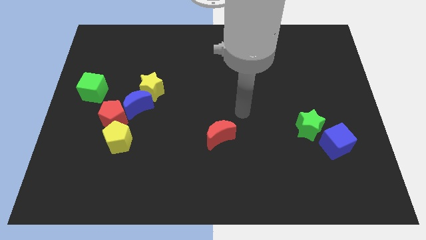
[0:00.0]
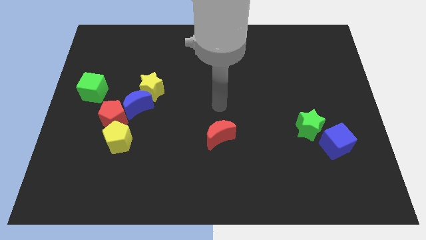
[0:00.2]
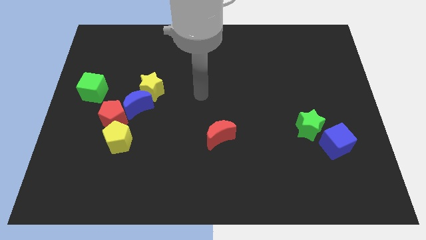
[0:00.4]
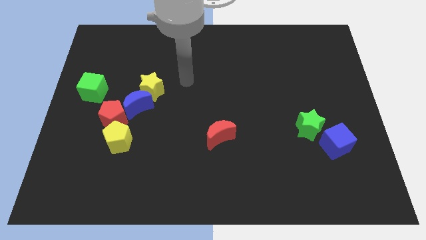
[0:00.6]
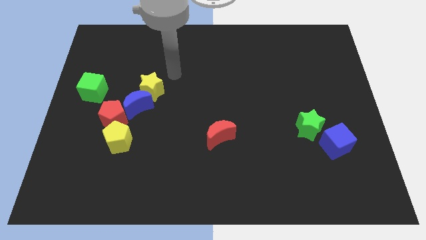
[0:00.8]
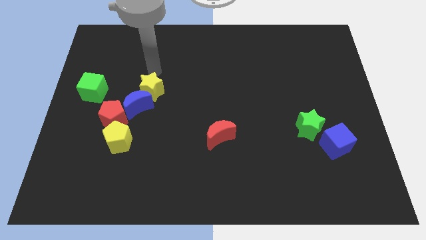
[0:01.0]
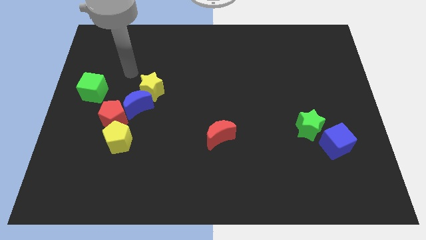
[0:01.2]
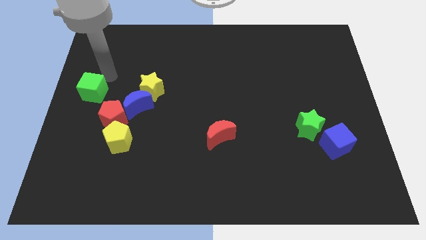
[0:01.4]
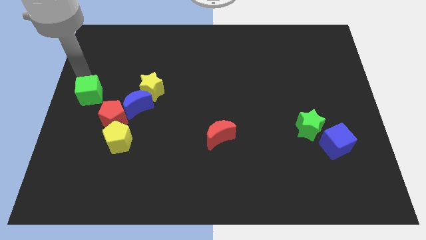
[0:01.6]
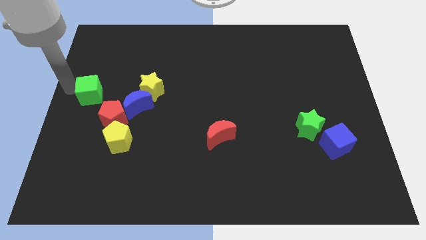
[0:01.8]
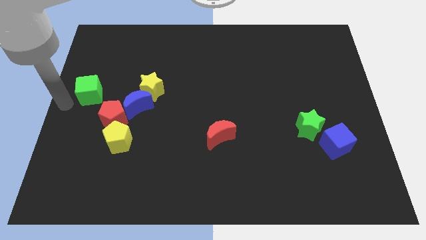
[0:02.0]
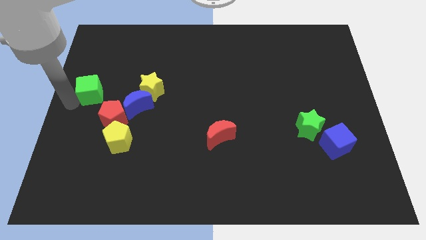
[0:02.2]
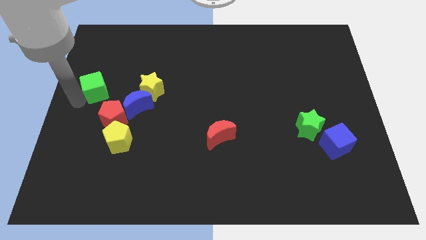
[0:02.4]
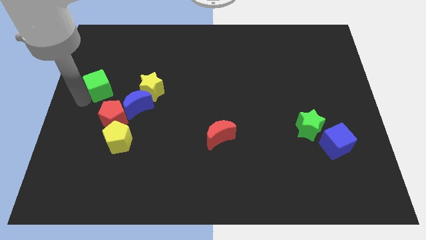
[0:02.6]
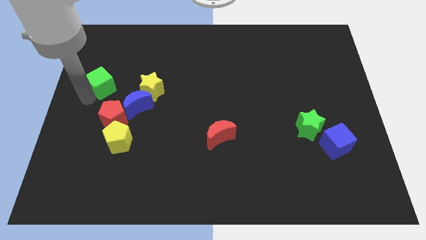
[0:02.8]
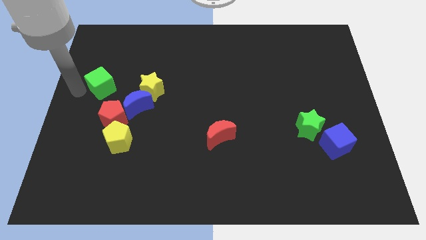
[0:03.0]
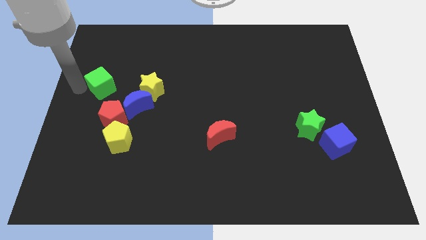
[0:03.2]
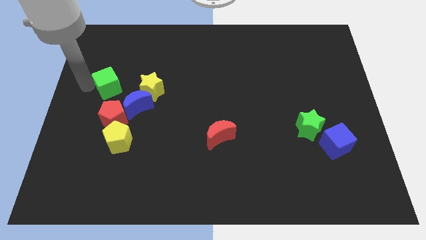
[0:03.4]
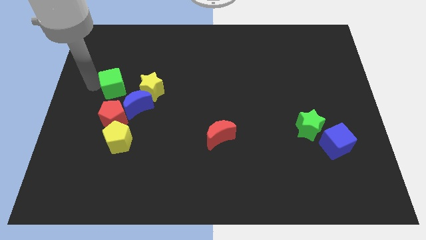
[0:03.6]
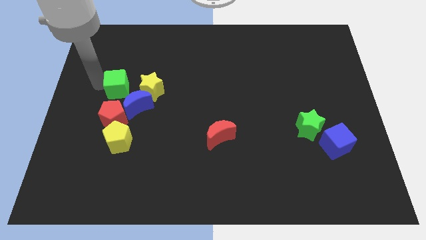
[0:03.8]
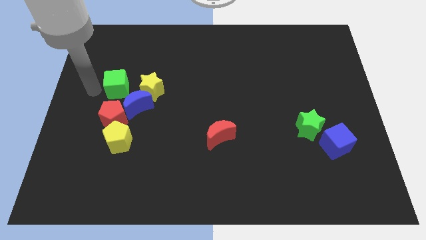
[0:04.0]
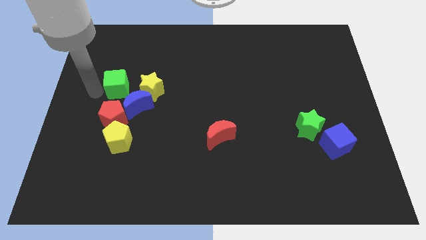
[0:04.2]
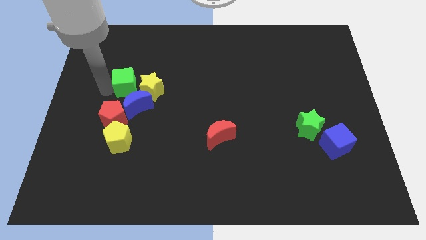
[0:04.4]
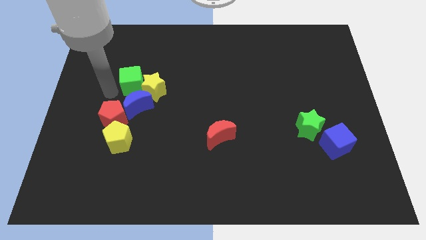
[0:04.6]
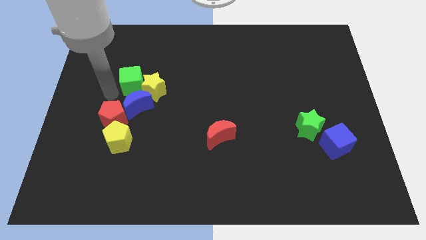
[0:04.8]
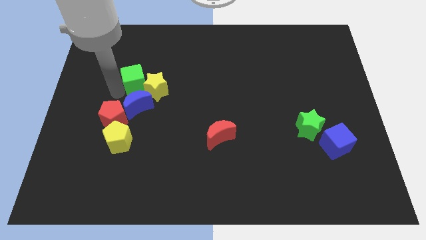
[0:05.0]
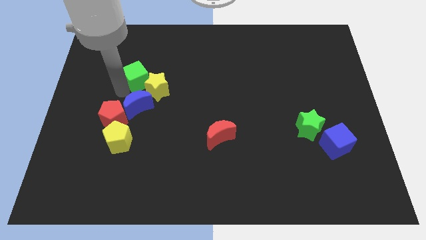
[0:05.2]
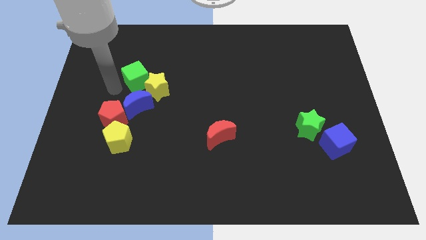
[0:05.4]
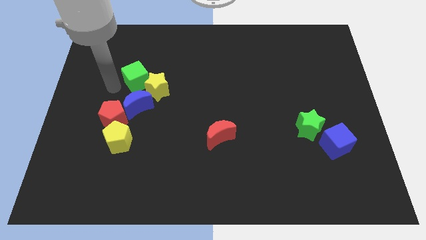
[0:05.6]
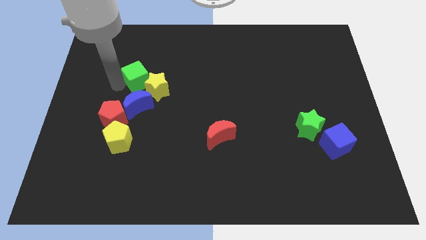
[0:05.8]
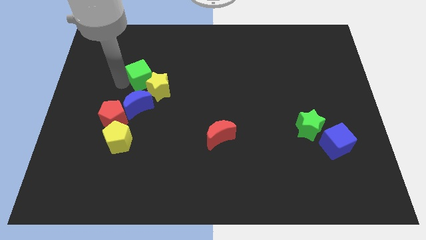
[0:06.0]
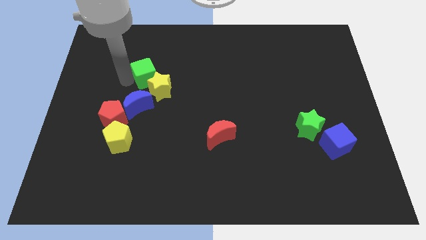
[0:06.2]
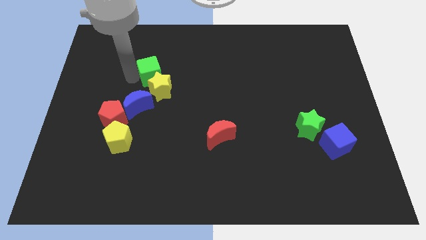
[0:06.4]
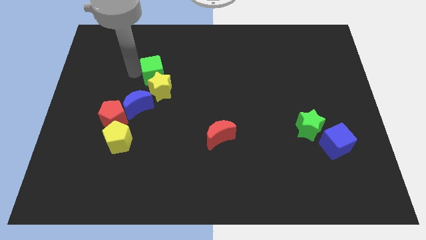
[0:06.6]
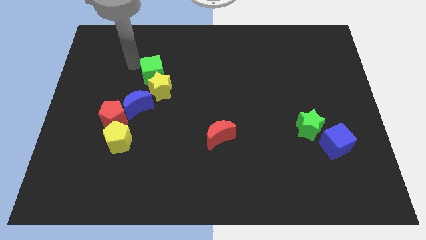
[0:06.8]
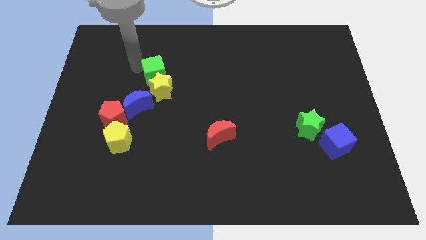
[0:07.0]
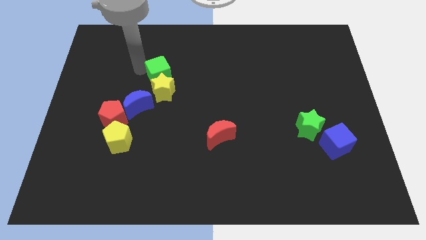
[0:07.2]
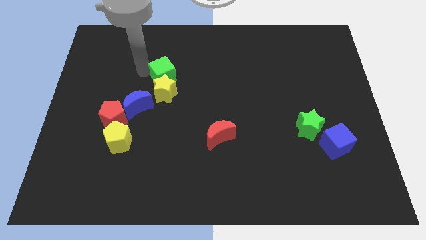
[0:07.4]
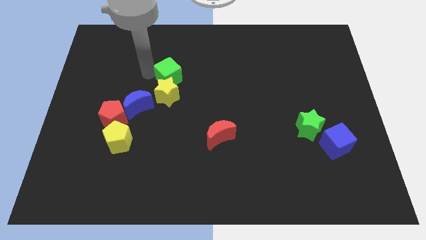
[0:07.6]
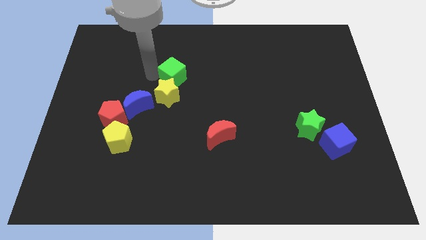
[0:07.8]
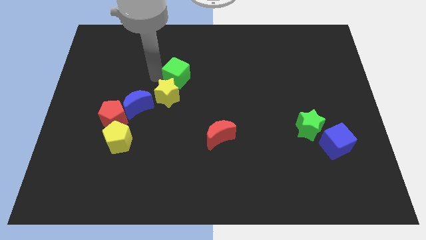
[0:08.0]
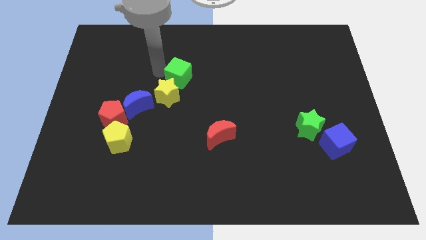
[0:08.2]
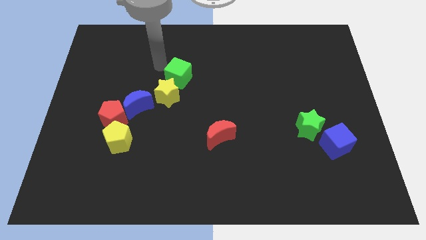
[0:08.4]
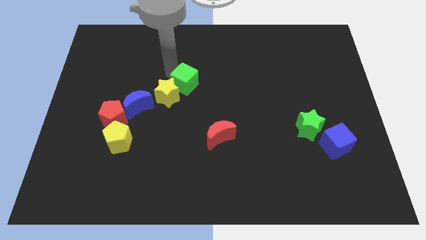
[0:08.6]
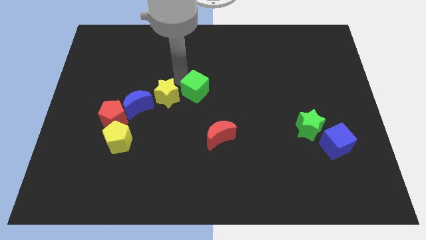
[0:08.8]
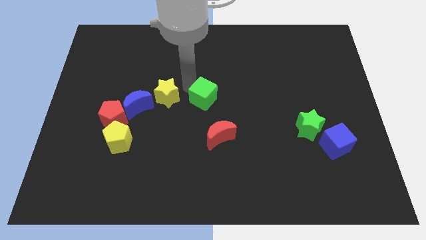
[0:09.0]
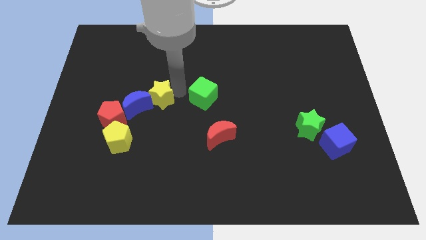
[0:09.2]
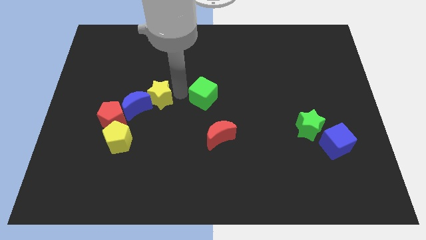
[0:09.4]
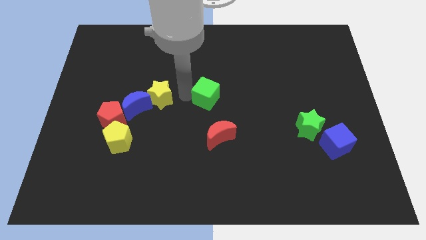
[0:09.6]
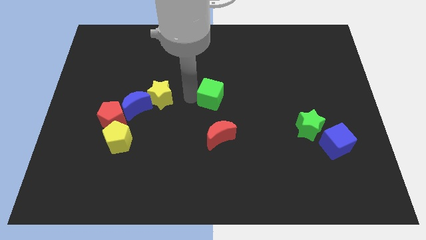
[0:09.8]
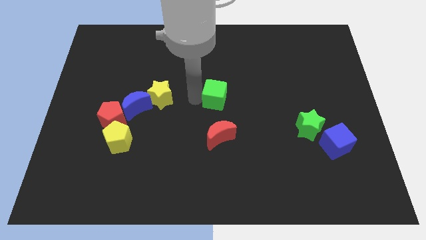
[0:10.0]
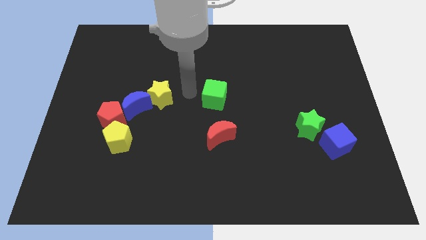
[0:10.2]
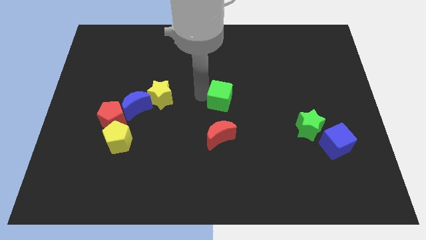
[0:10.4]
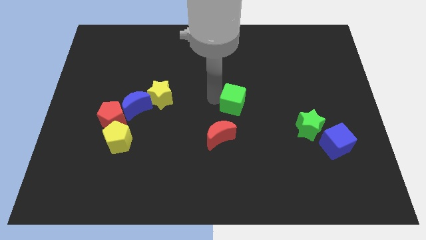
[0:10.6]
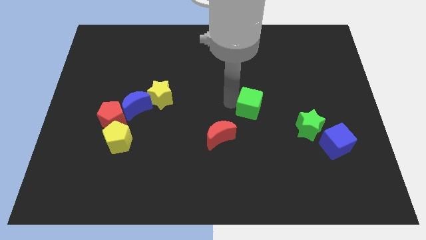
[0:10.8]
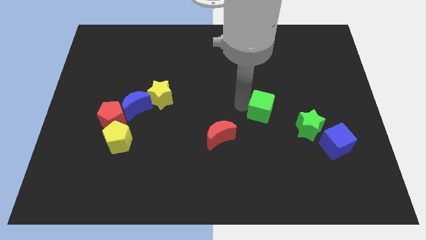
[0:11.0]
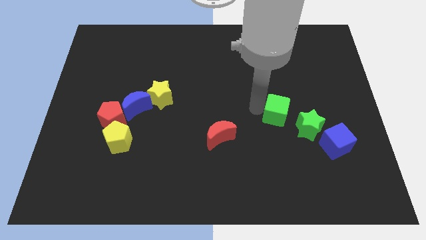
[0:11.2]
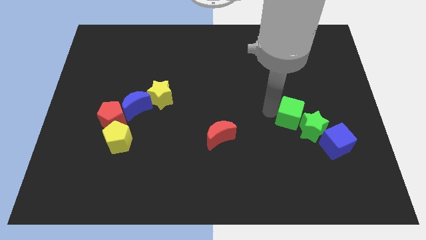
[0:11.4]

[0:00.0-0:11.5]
slide the green cube close to the green star

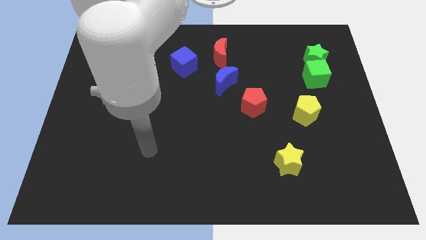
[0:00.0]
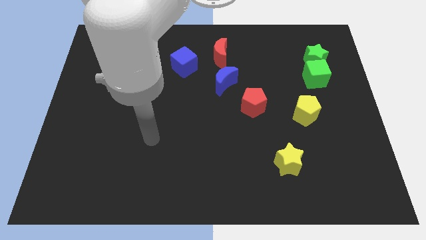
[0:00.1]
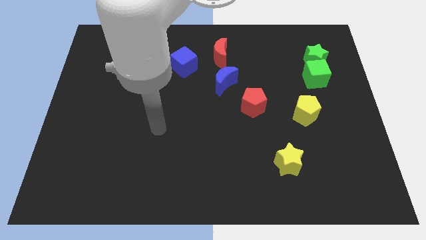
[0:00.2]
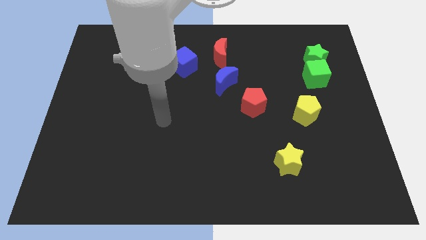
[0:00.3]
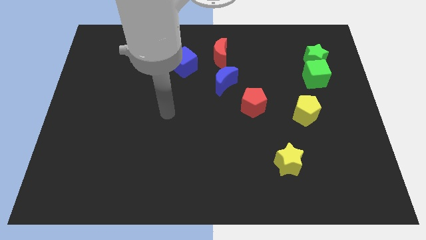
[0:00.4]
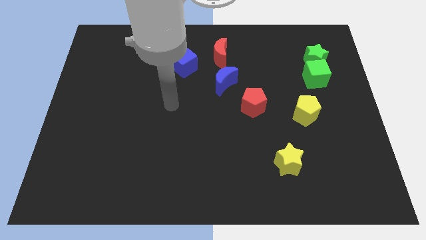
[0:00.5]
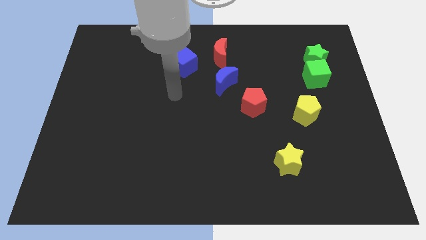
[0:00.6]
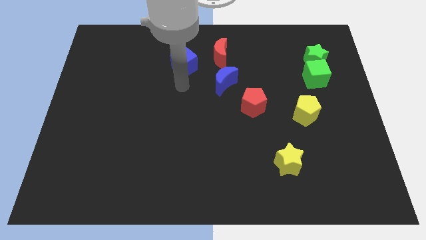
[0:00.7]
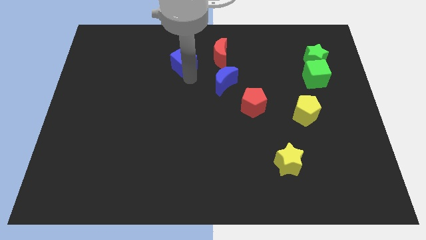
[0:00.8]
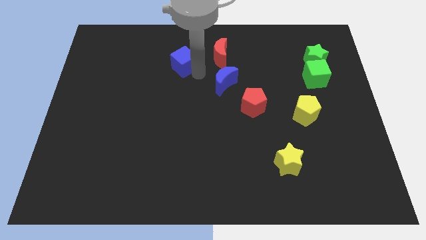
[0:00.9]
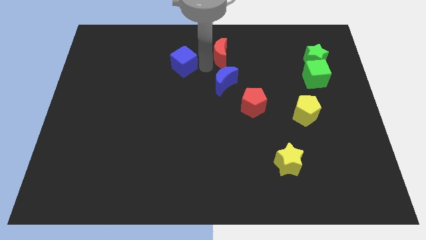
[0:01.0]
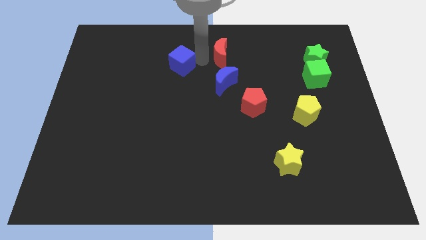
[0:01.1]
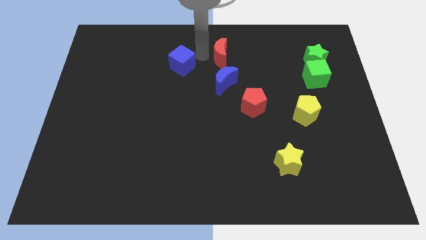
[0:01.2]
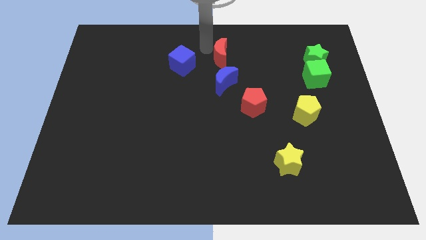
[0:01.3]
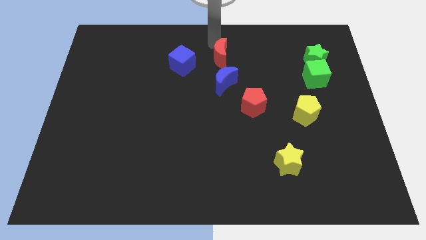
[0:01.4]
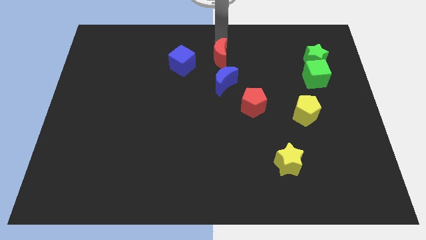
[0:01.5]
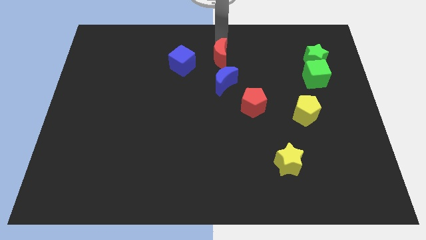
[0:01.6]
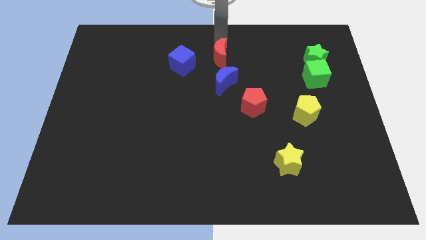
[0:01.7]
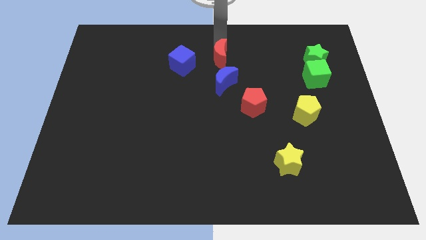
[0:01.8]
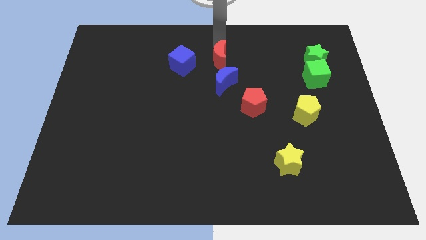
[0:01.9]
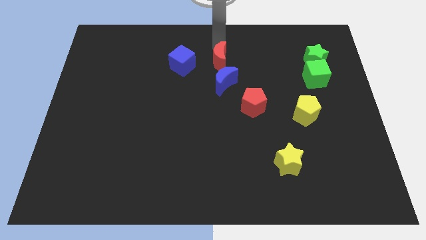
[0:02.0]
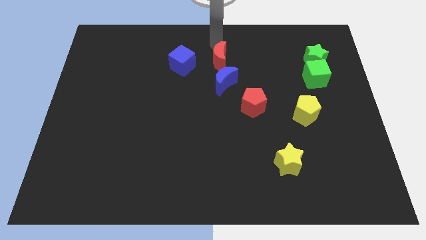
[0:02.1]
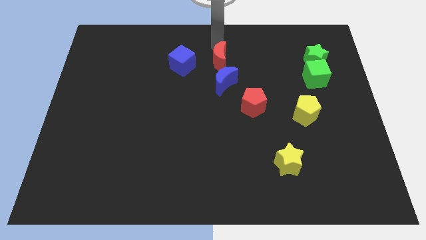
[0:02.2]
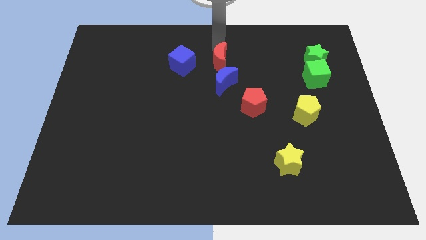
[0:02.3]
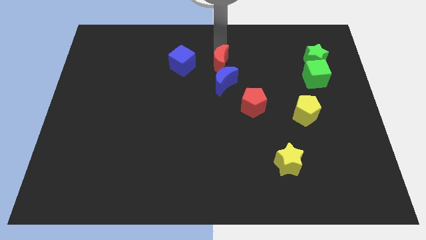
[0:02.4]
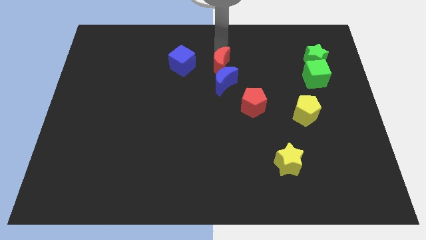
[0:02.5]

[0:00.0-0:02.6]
put the red moon next to the blue moon
